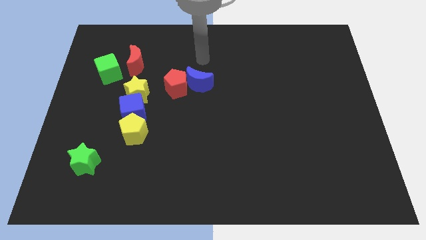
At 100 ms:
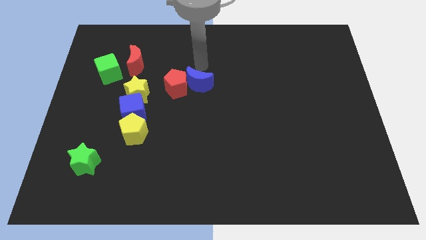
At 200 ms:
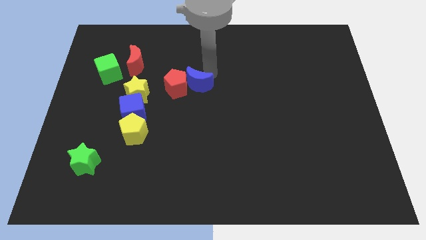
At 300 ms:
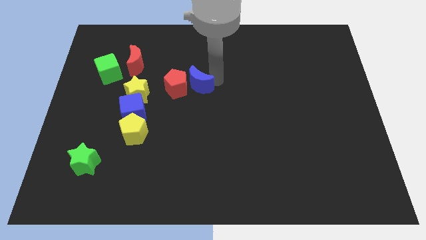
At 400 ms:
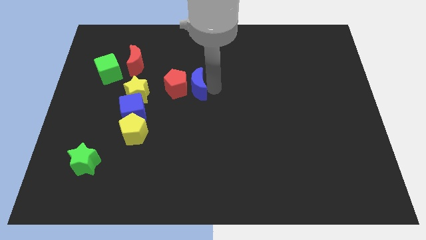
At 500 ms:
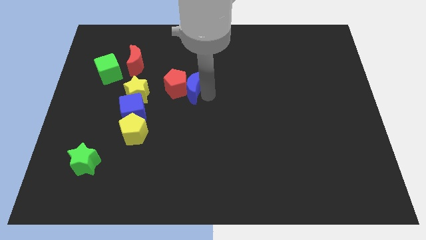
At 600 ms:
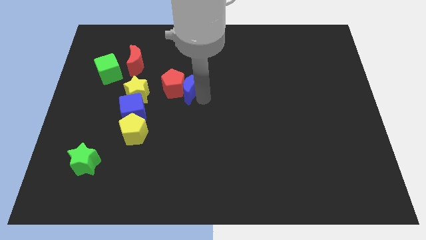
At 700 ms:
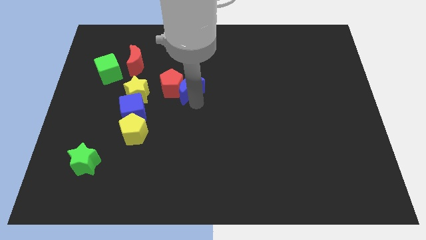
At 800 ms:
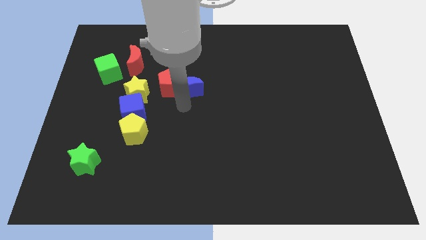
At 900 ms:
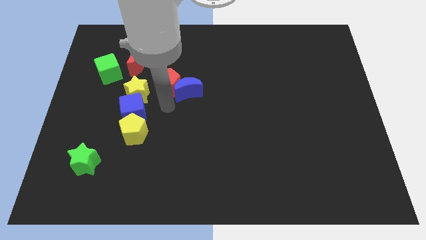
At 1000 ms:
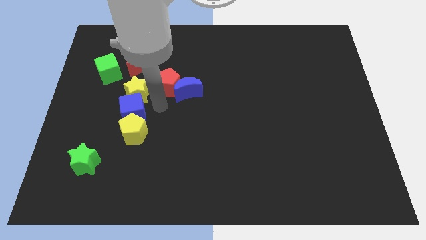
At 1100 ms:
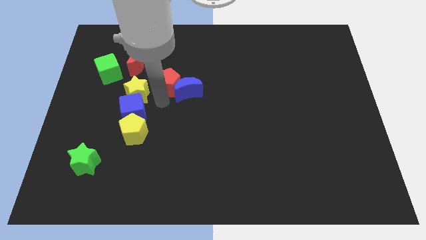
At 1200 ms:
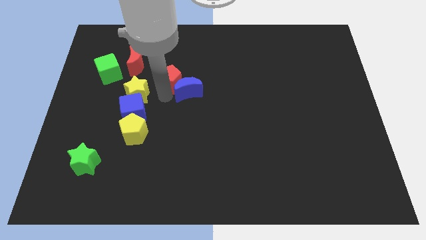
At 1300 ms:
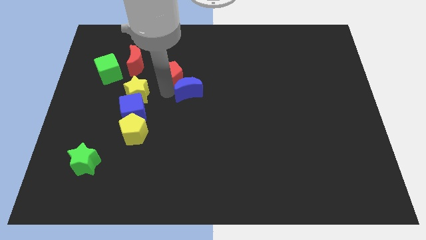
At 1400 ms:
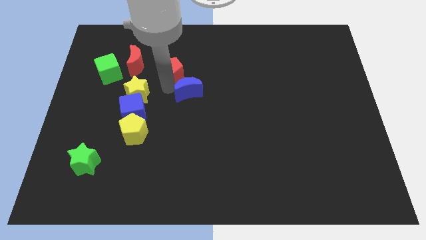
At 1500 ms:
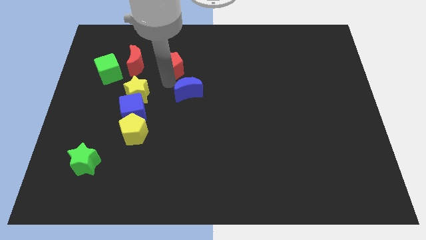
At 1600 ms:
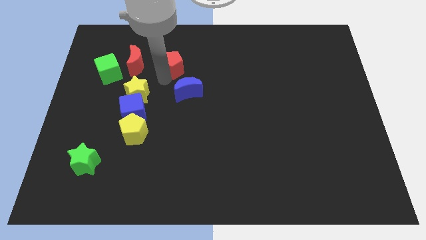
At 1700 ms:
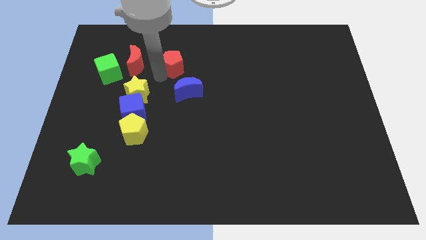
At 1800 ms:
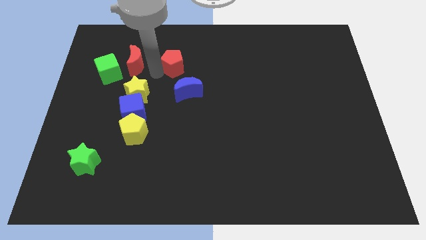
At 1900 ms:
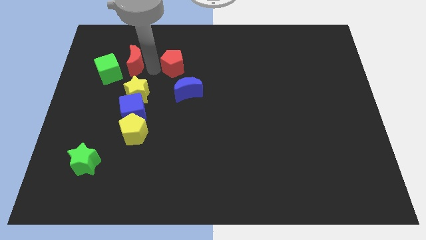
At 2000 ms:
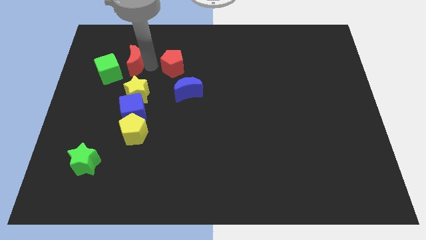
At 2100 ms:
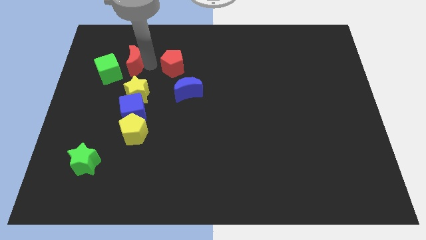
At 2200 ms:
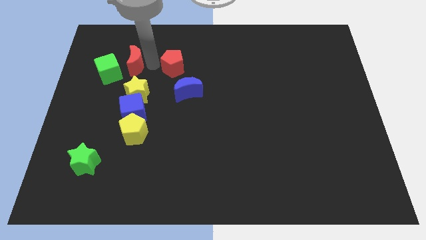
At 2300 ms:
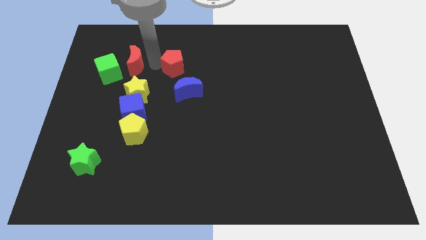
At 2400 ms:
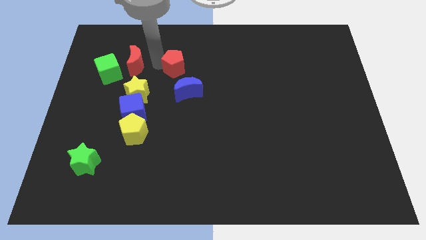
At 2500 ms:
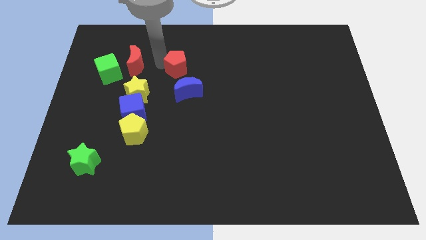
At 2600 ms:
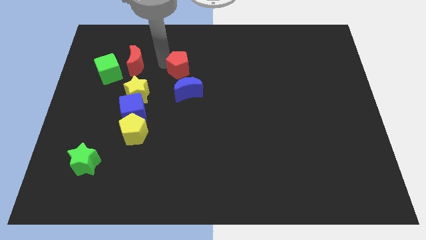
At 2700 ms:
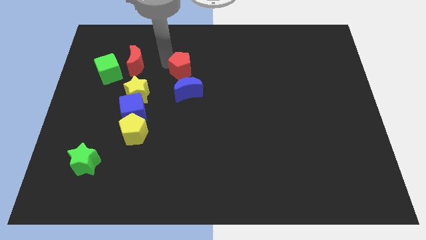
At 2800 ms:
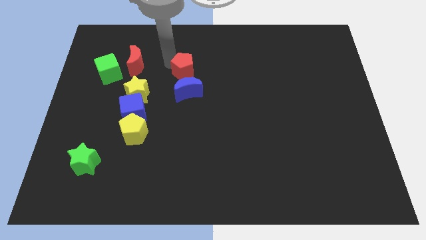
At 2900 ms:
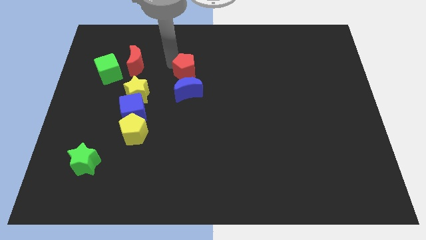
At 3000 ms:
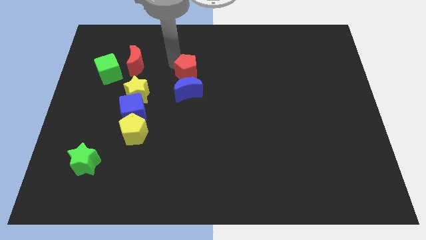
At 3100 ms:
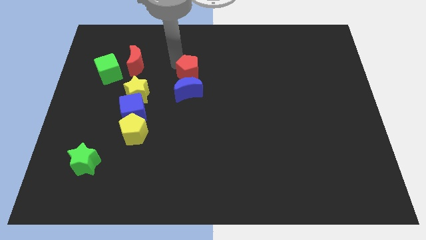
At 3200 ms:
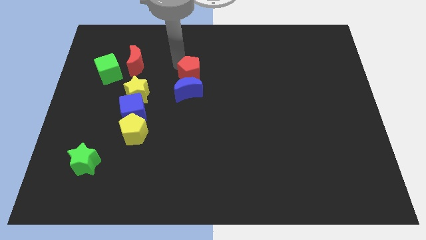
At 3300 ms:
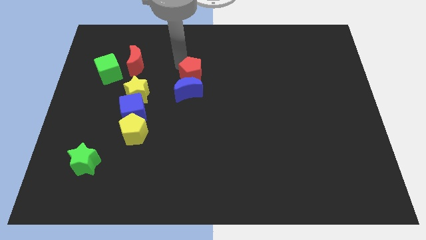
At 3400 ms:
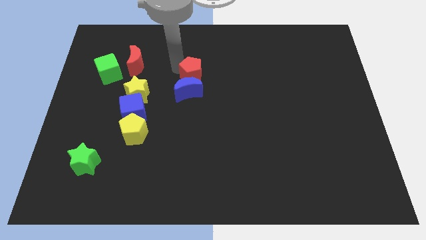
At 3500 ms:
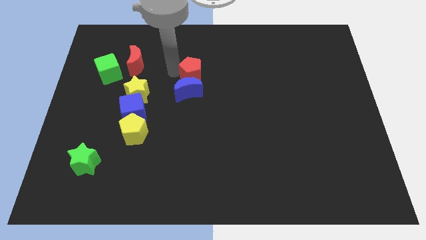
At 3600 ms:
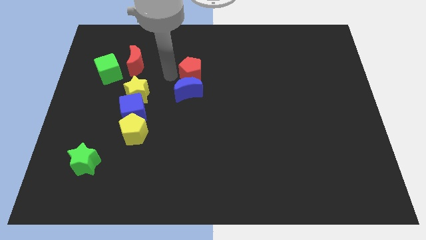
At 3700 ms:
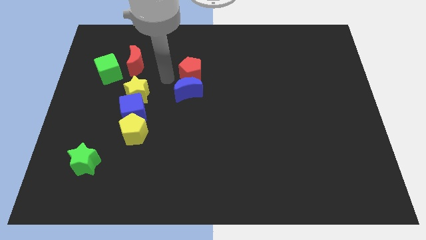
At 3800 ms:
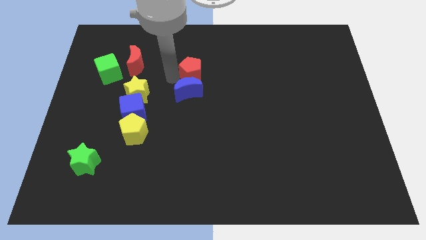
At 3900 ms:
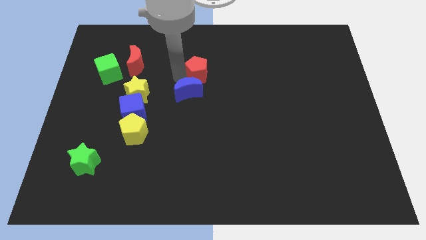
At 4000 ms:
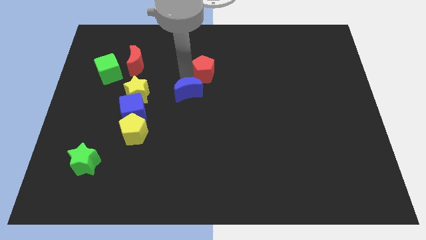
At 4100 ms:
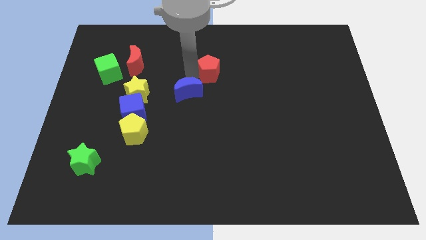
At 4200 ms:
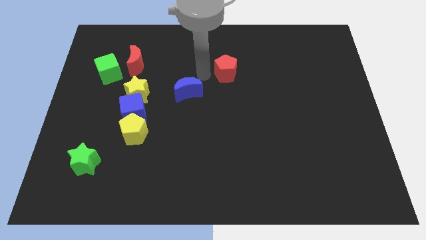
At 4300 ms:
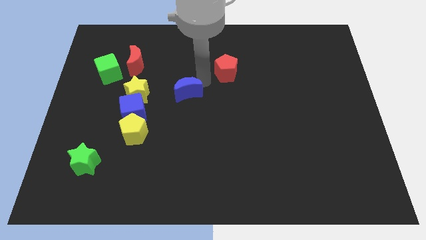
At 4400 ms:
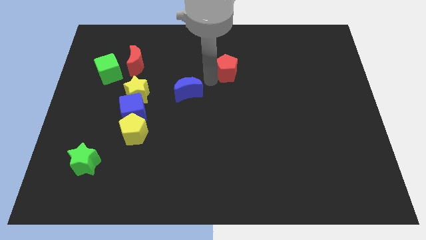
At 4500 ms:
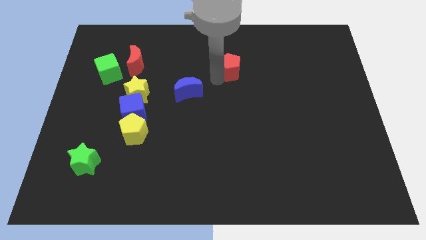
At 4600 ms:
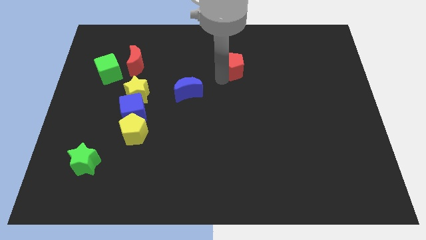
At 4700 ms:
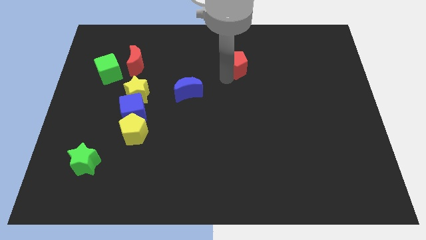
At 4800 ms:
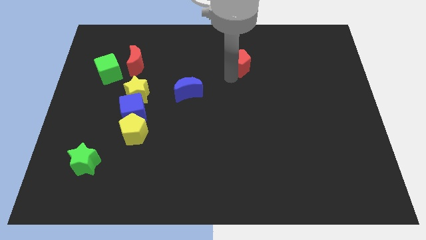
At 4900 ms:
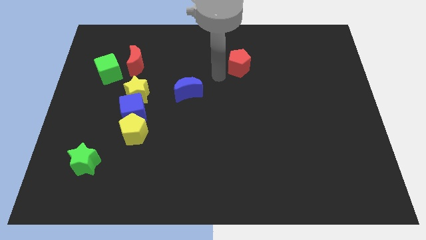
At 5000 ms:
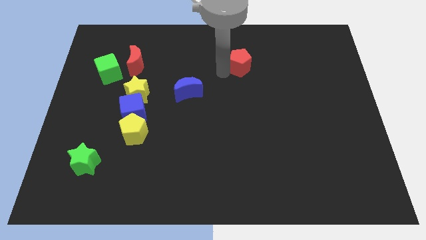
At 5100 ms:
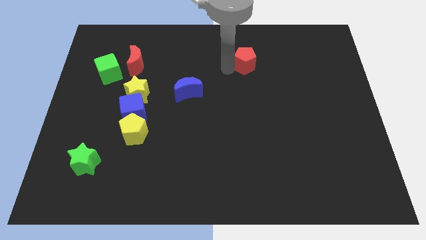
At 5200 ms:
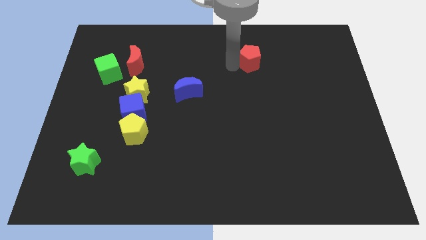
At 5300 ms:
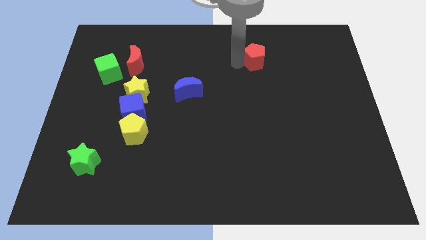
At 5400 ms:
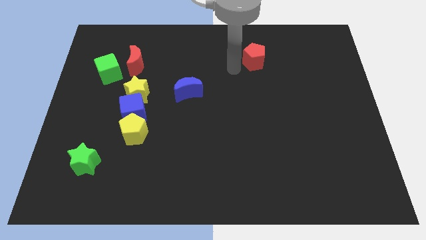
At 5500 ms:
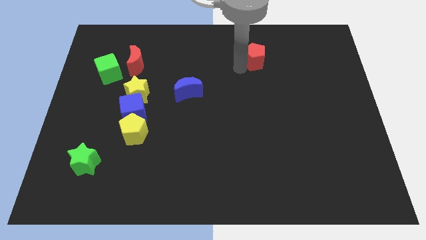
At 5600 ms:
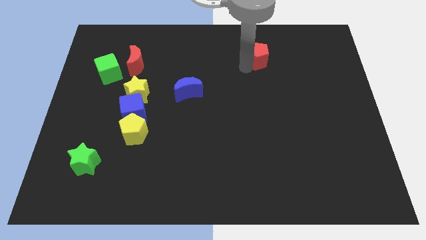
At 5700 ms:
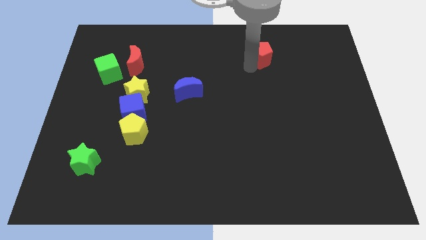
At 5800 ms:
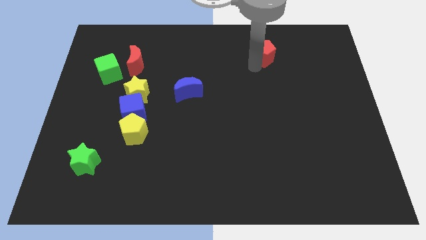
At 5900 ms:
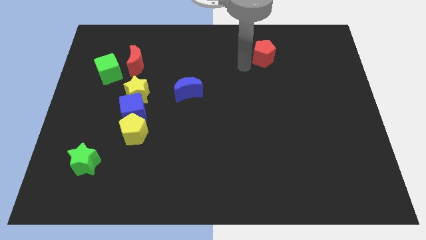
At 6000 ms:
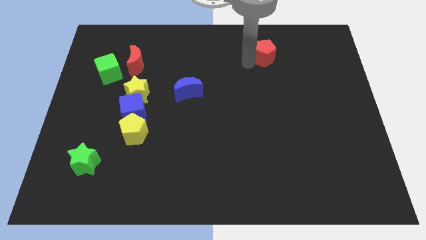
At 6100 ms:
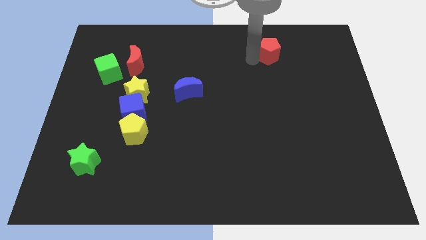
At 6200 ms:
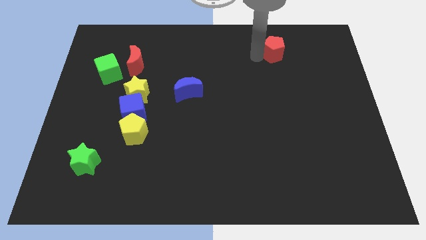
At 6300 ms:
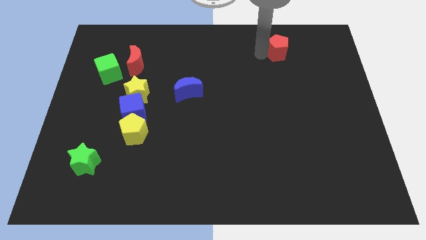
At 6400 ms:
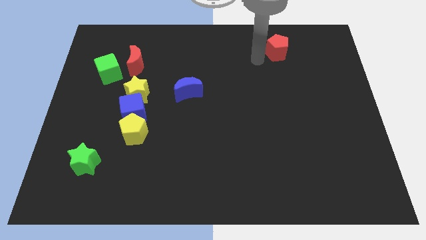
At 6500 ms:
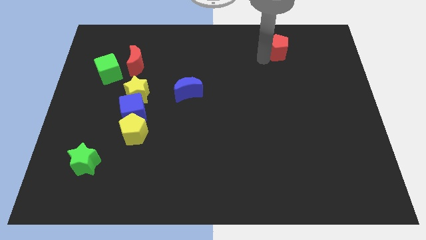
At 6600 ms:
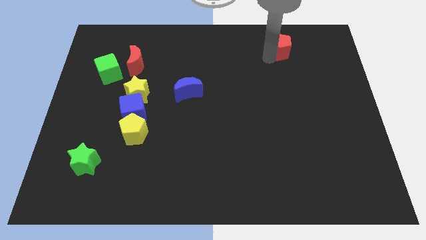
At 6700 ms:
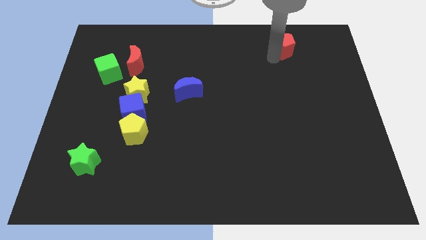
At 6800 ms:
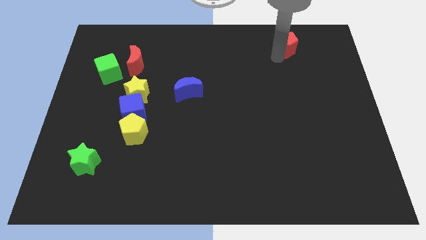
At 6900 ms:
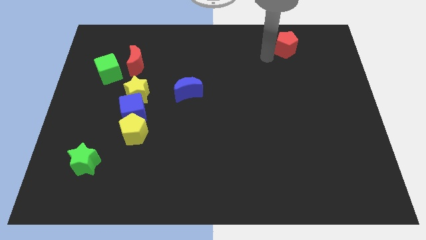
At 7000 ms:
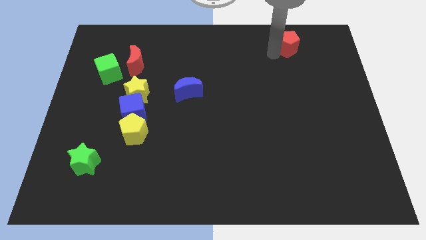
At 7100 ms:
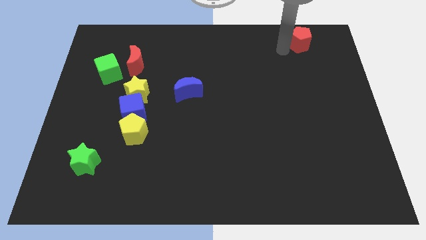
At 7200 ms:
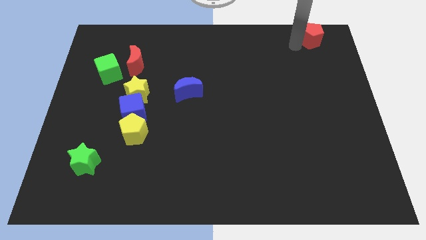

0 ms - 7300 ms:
push the red pentagon to the upper right corner
